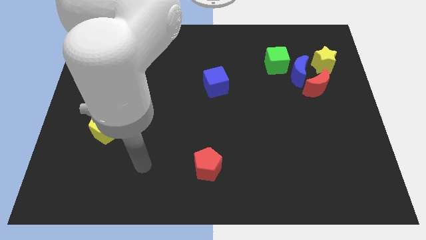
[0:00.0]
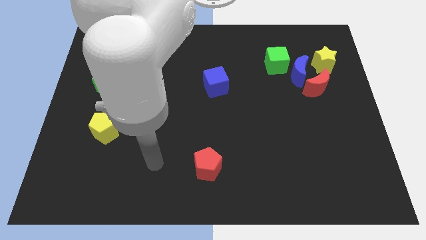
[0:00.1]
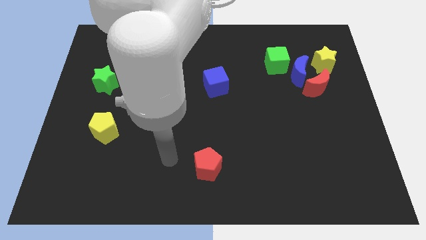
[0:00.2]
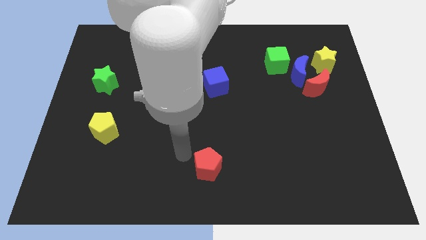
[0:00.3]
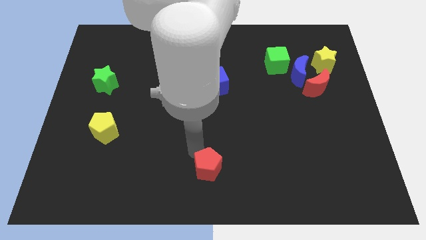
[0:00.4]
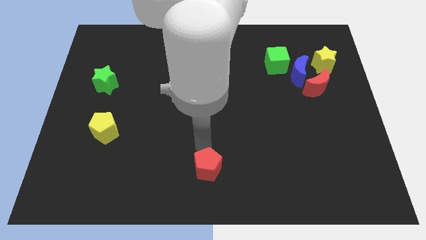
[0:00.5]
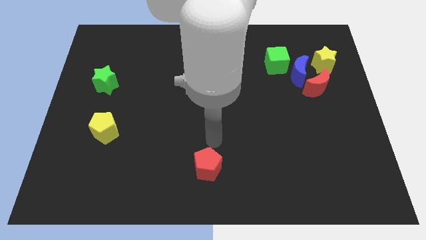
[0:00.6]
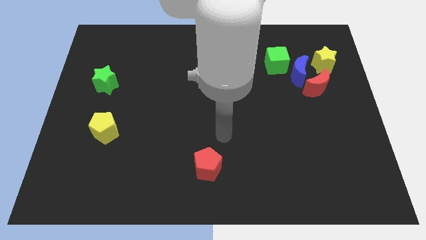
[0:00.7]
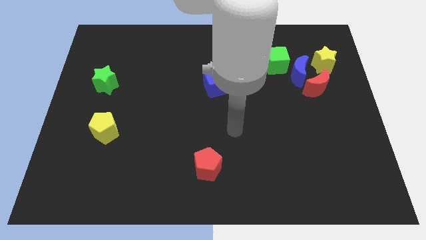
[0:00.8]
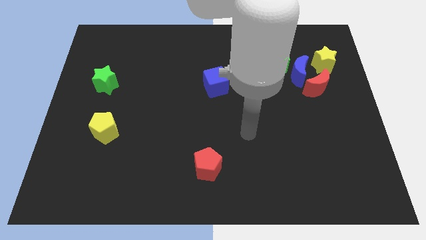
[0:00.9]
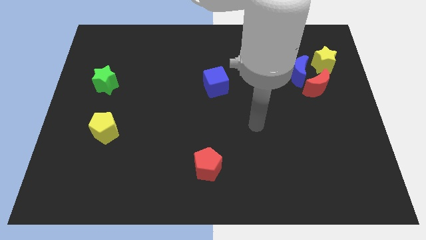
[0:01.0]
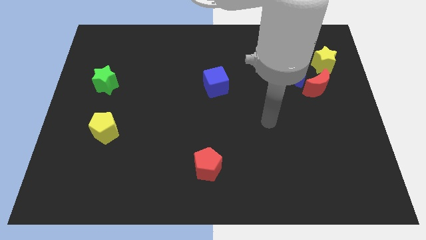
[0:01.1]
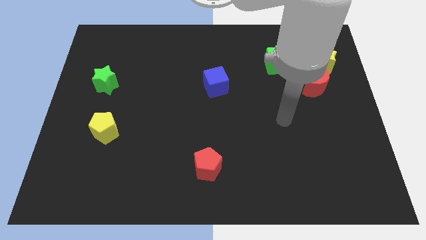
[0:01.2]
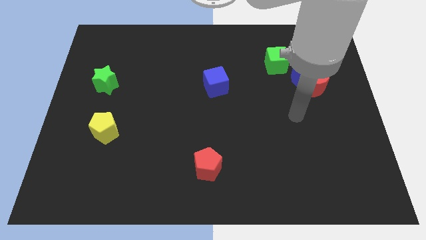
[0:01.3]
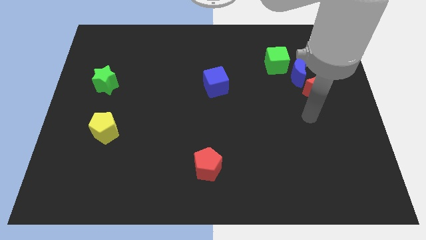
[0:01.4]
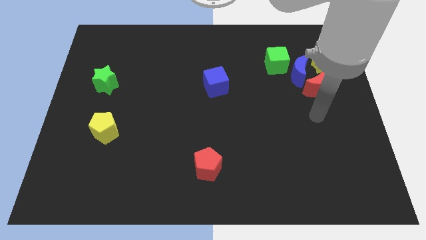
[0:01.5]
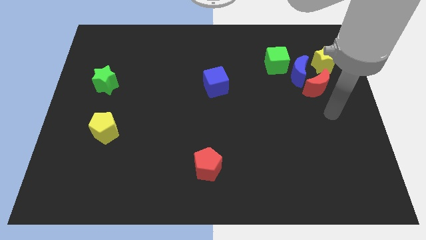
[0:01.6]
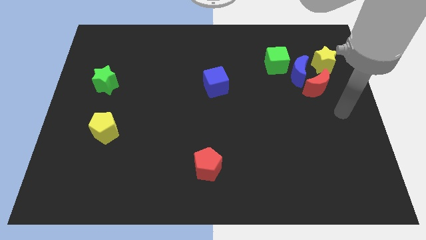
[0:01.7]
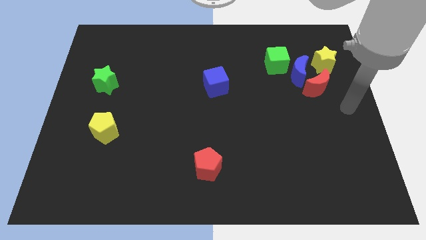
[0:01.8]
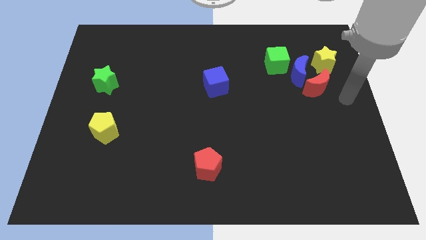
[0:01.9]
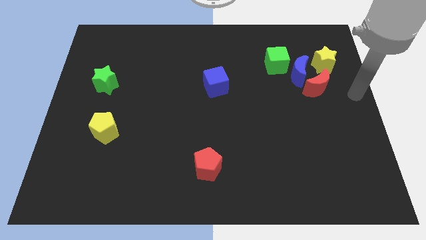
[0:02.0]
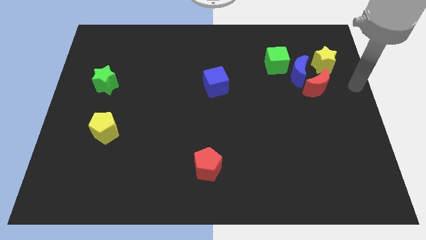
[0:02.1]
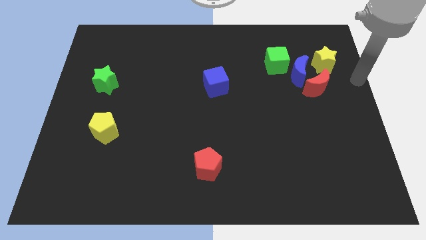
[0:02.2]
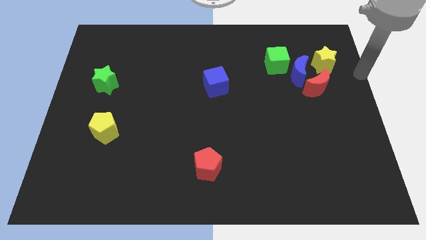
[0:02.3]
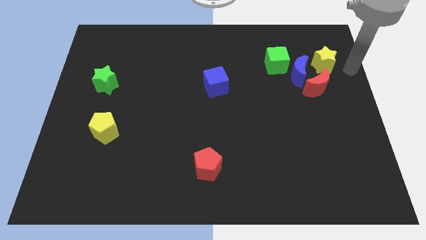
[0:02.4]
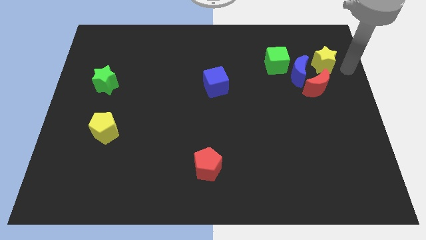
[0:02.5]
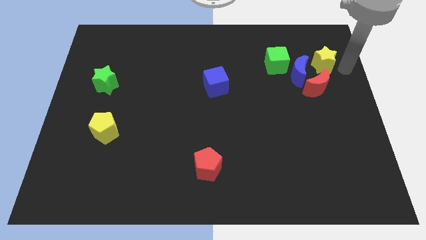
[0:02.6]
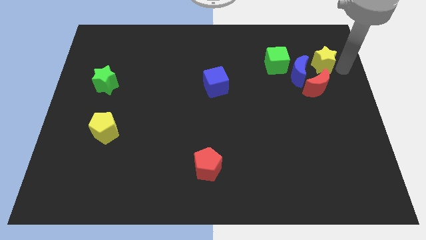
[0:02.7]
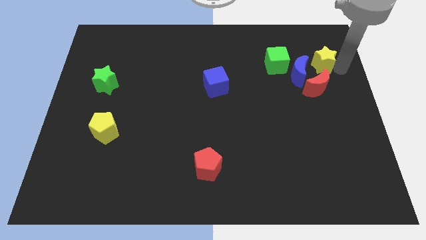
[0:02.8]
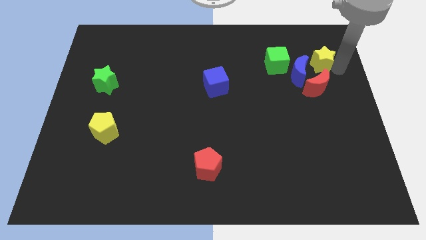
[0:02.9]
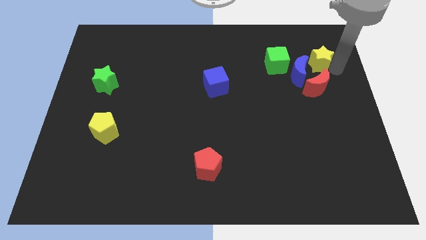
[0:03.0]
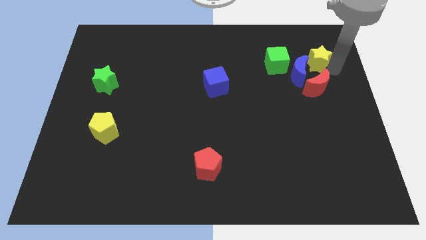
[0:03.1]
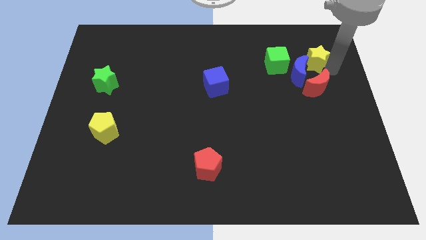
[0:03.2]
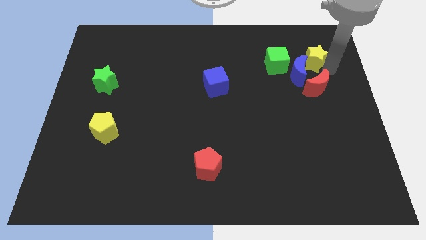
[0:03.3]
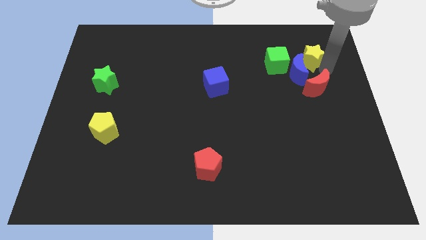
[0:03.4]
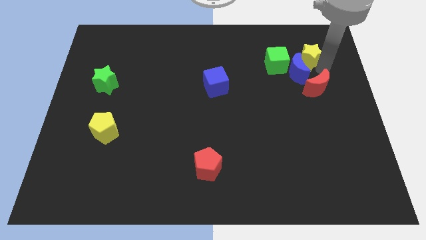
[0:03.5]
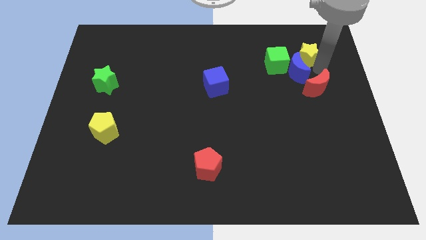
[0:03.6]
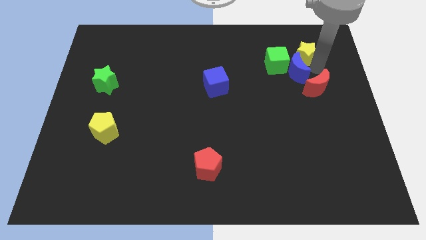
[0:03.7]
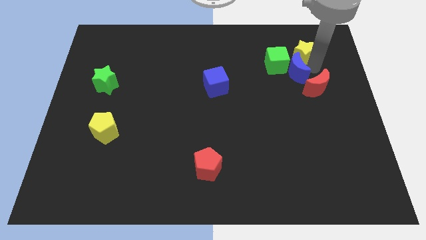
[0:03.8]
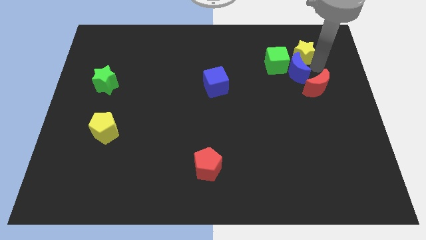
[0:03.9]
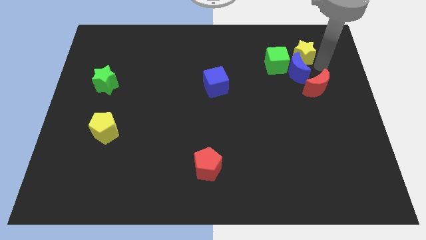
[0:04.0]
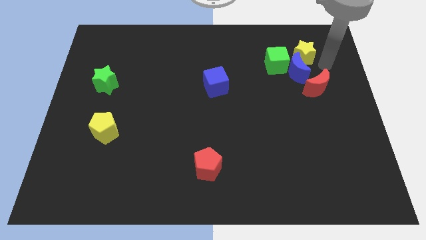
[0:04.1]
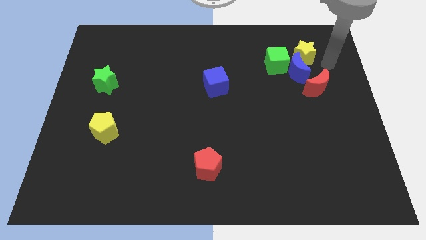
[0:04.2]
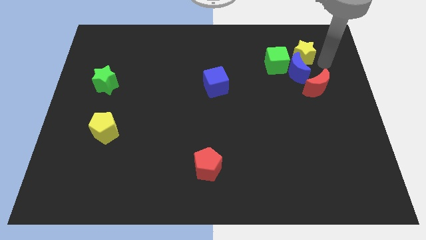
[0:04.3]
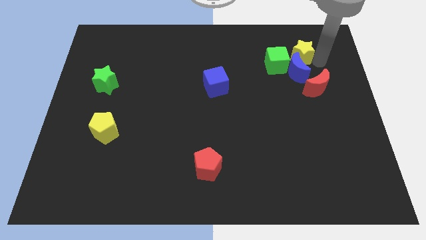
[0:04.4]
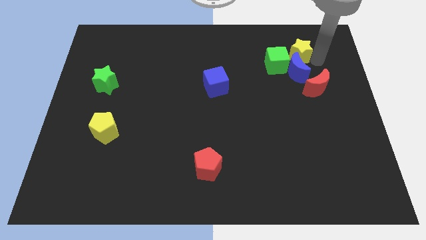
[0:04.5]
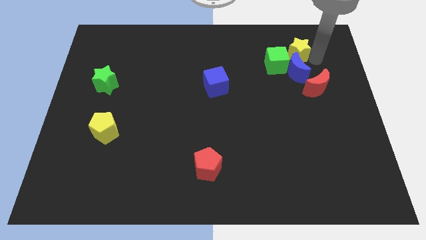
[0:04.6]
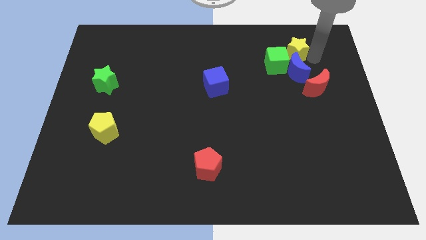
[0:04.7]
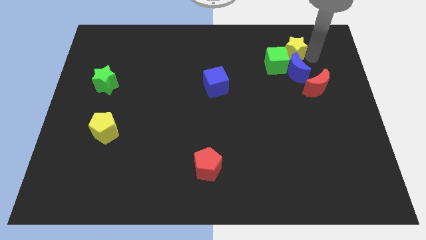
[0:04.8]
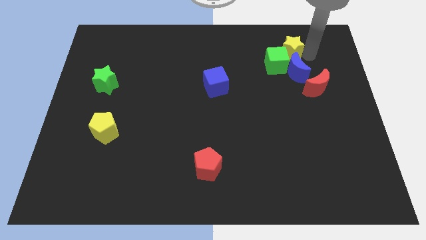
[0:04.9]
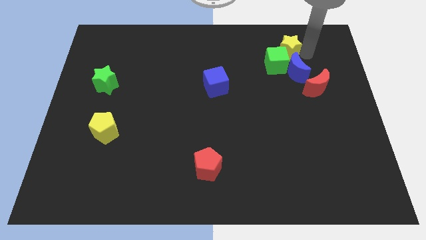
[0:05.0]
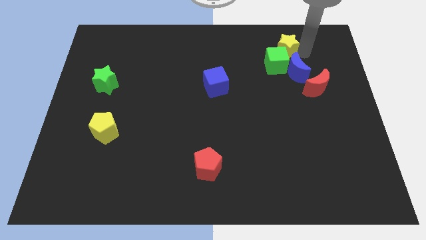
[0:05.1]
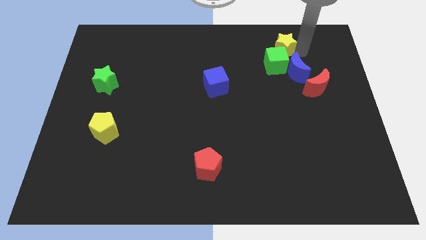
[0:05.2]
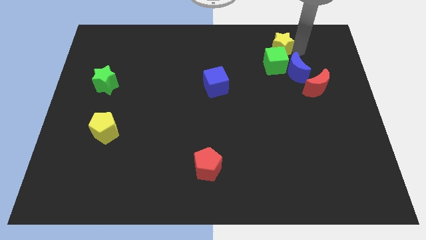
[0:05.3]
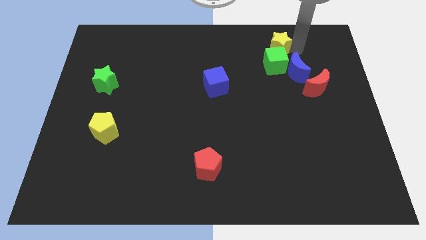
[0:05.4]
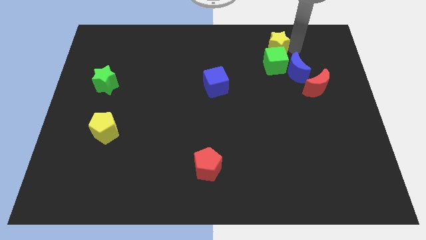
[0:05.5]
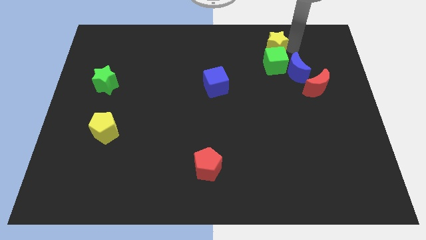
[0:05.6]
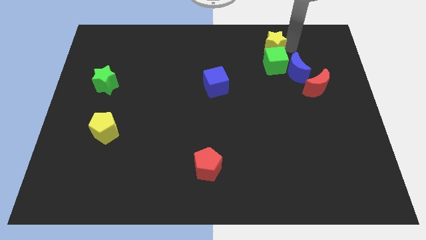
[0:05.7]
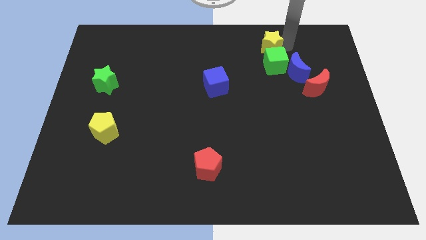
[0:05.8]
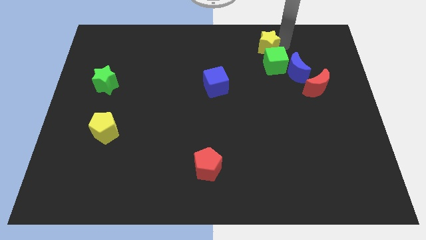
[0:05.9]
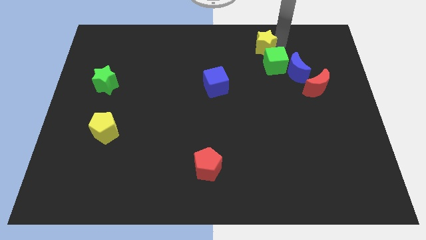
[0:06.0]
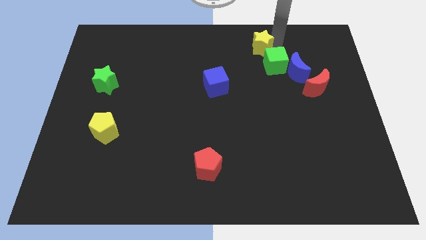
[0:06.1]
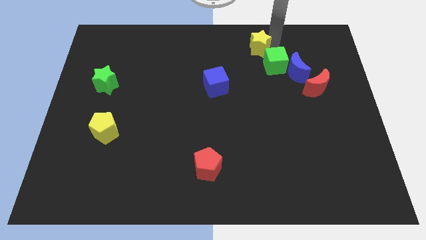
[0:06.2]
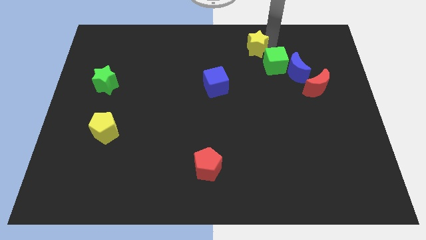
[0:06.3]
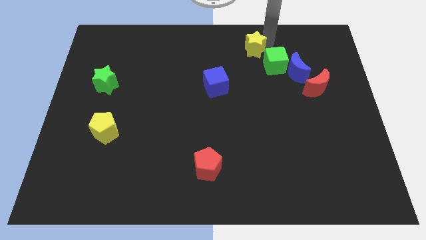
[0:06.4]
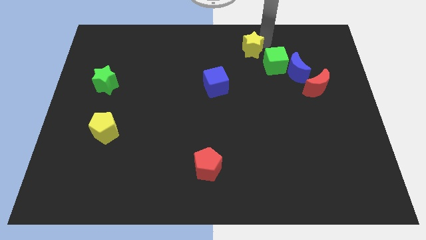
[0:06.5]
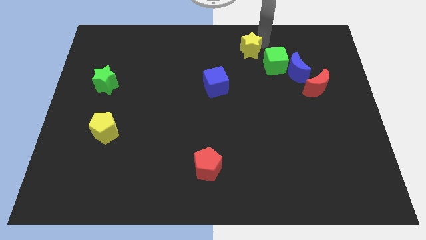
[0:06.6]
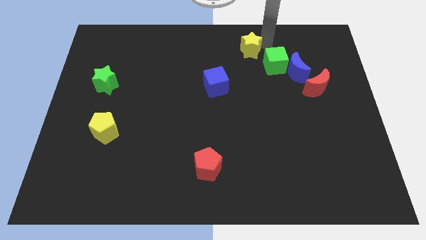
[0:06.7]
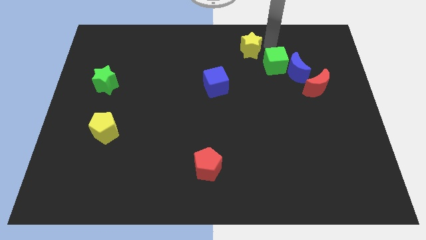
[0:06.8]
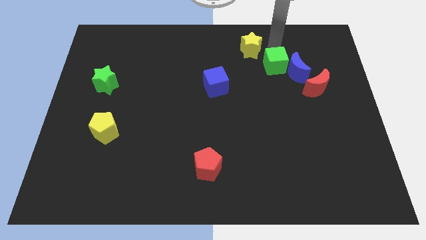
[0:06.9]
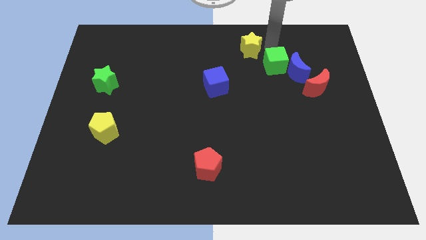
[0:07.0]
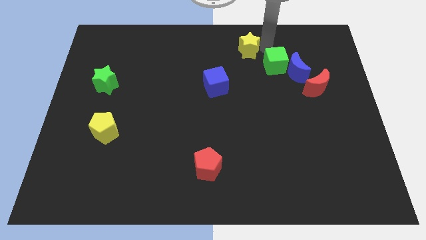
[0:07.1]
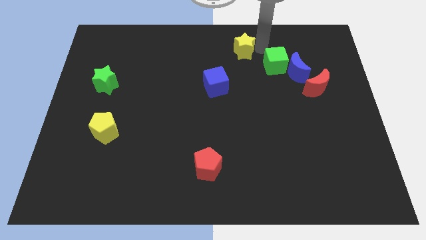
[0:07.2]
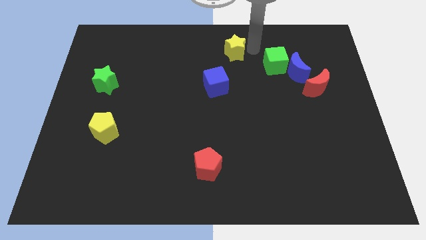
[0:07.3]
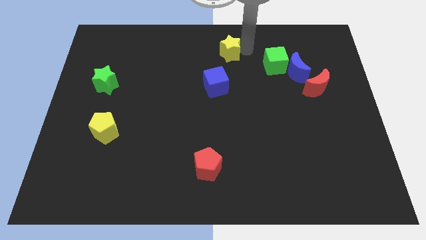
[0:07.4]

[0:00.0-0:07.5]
put the yellow star above the blue cube
